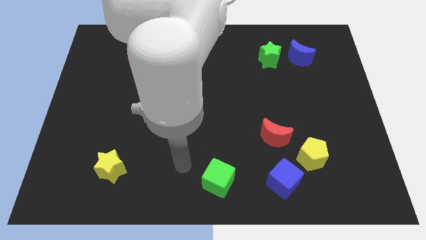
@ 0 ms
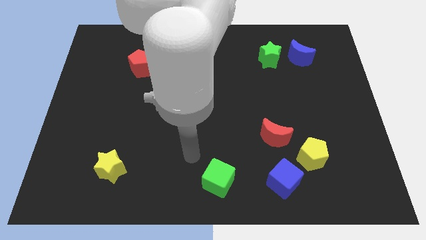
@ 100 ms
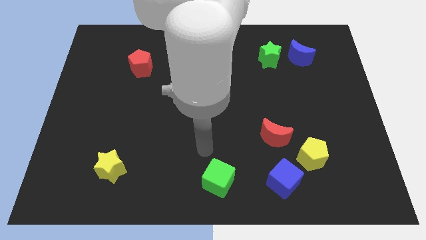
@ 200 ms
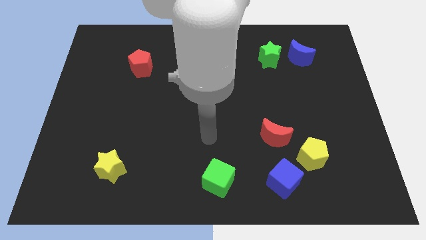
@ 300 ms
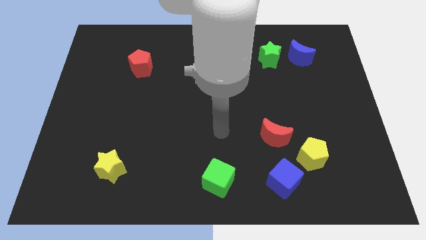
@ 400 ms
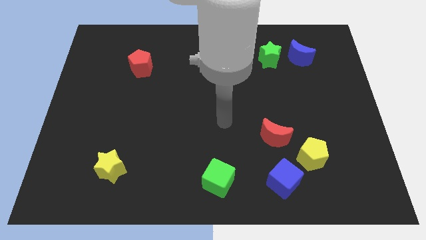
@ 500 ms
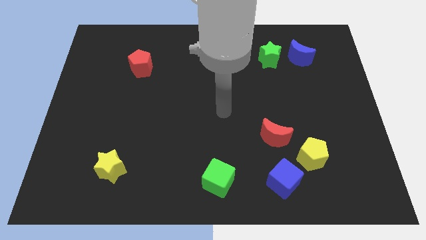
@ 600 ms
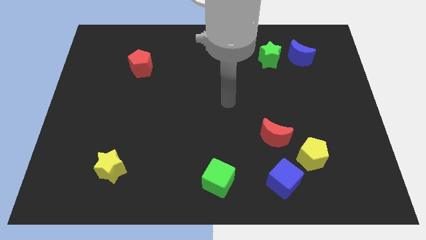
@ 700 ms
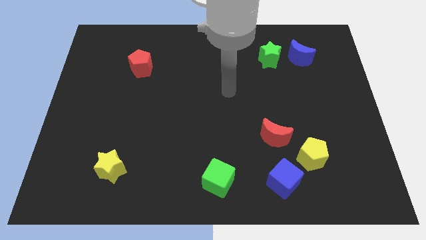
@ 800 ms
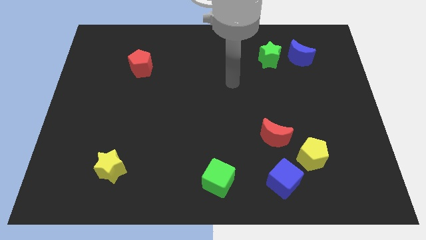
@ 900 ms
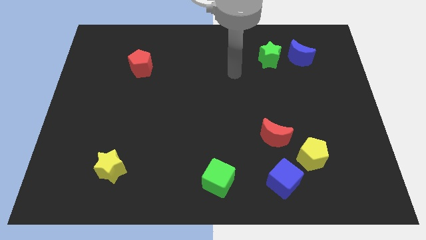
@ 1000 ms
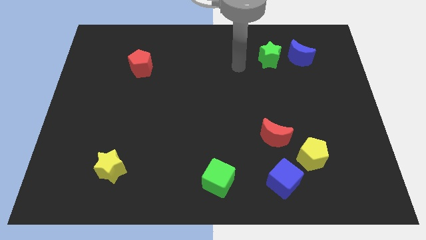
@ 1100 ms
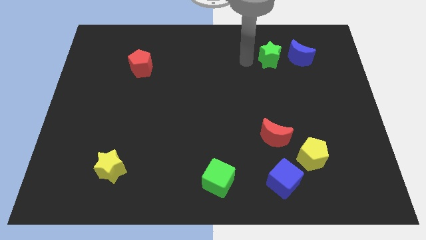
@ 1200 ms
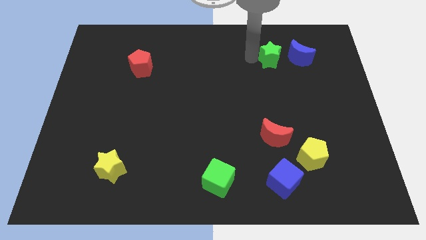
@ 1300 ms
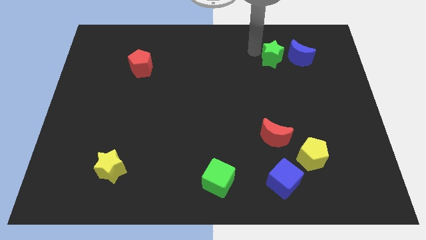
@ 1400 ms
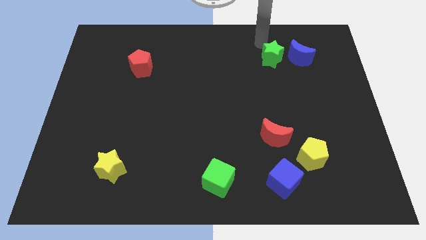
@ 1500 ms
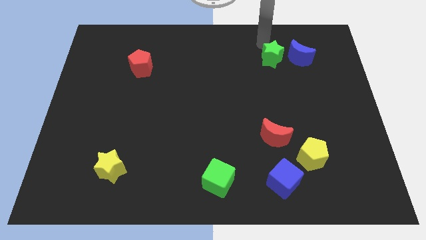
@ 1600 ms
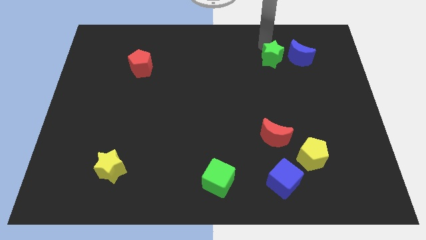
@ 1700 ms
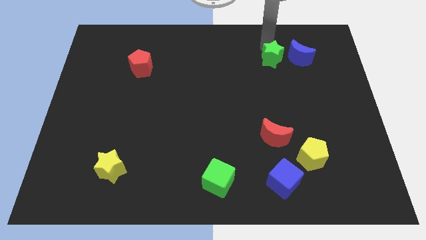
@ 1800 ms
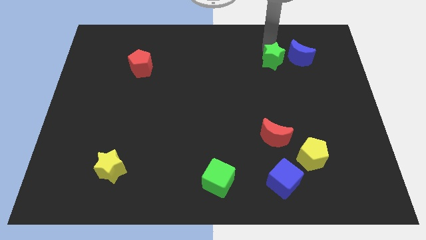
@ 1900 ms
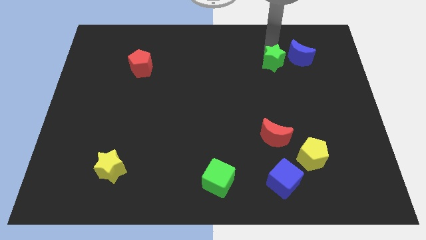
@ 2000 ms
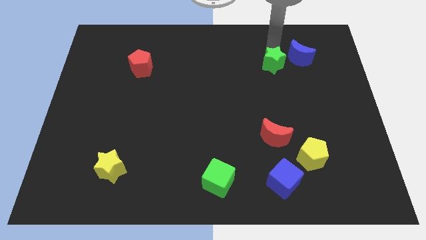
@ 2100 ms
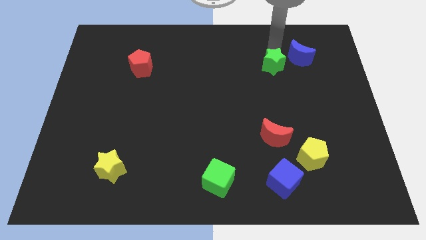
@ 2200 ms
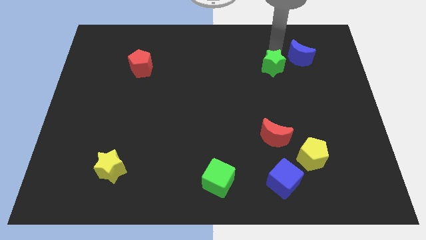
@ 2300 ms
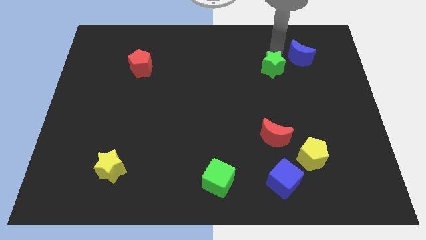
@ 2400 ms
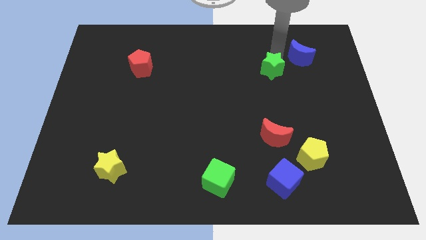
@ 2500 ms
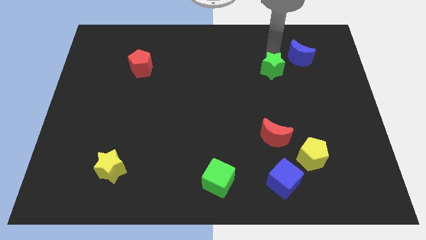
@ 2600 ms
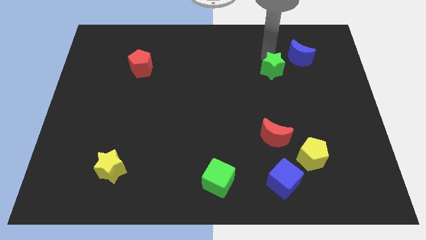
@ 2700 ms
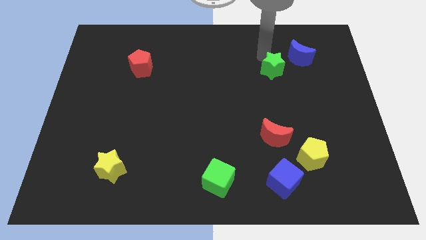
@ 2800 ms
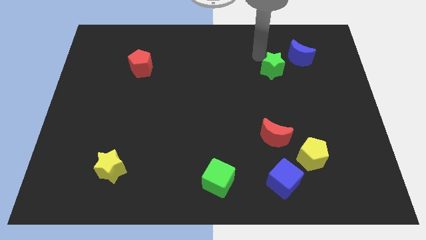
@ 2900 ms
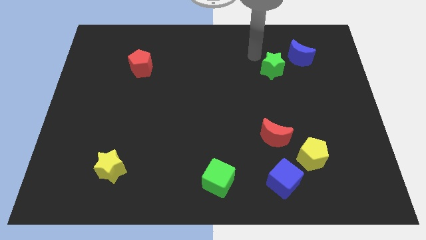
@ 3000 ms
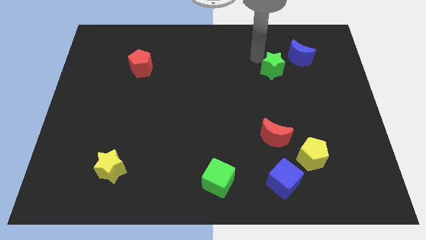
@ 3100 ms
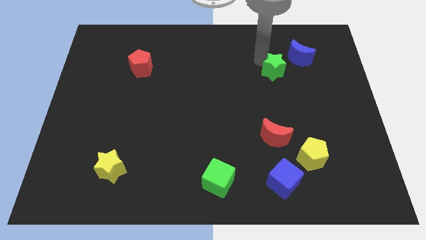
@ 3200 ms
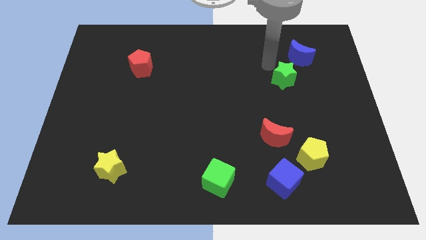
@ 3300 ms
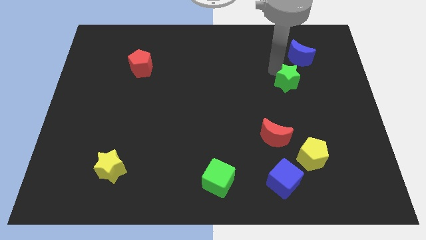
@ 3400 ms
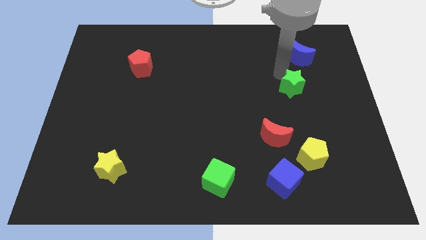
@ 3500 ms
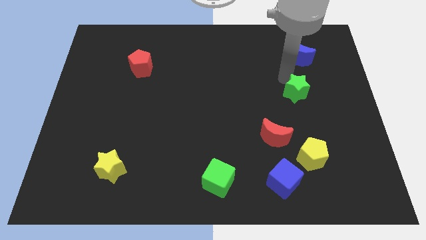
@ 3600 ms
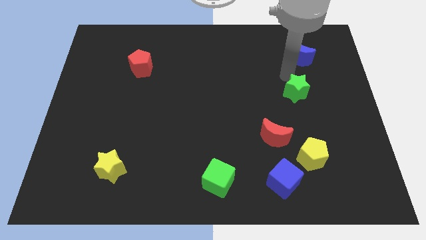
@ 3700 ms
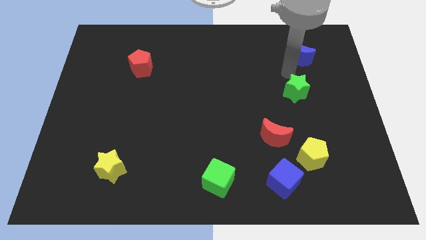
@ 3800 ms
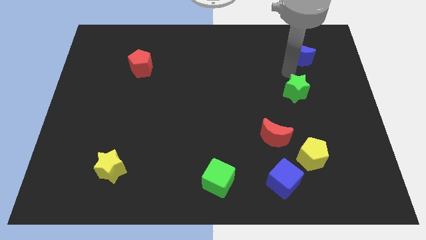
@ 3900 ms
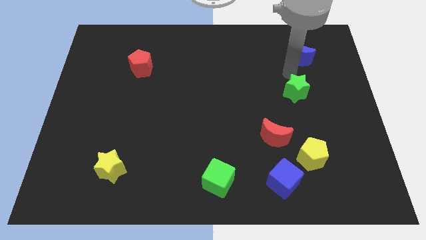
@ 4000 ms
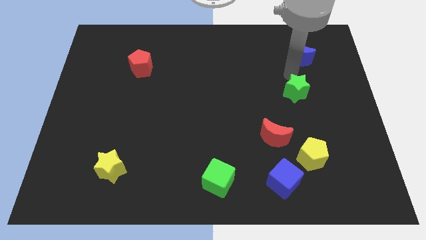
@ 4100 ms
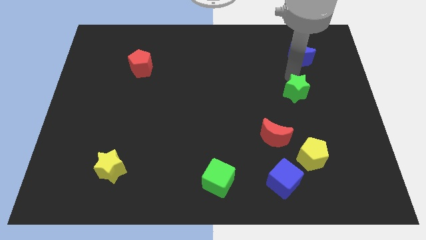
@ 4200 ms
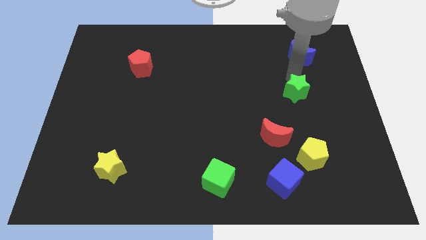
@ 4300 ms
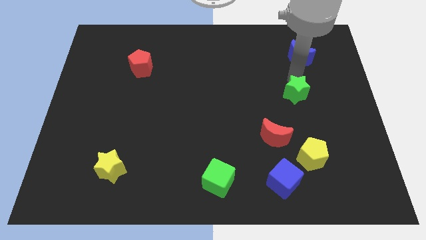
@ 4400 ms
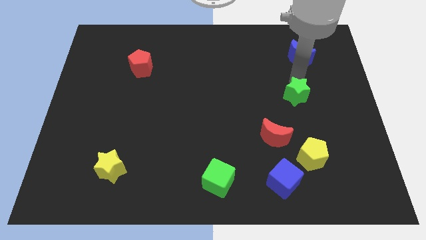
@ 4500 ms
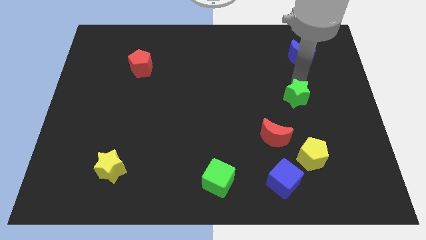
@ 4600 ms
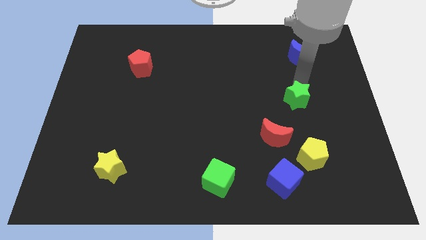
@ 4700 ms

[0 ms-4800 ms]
move the green star to the top side of the yellow pentagon

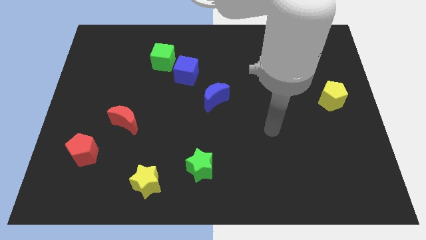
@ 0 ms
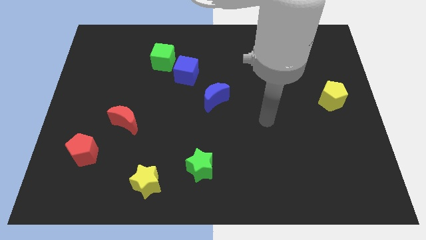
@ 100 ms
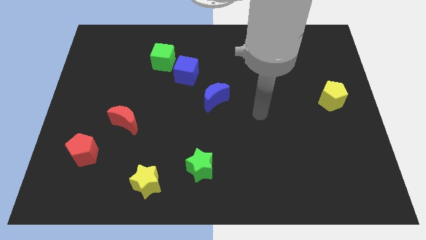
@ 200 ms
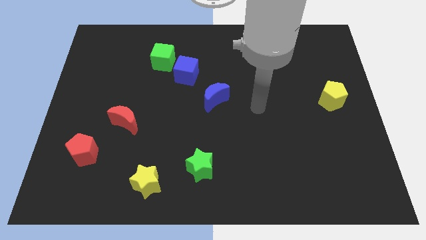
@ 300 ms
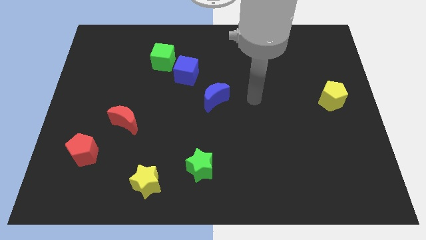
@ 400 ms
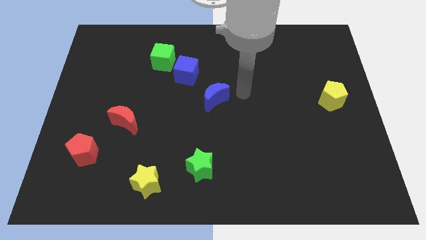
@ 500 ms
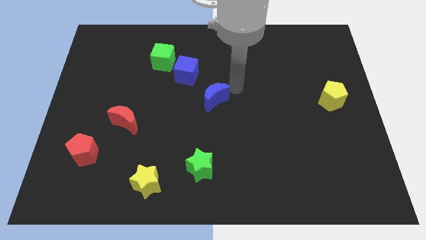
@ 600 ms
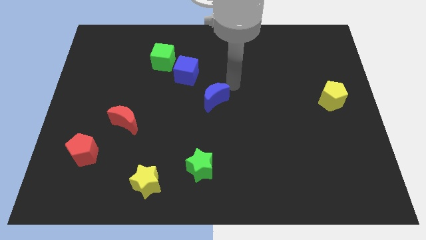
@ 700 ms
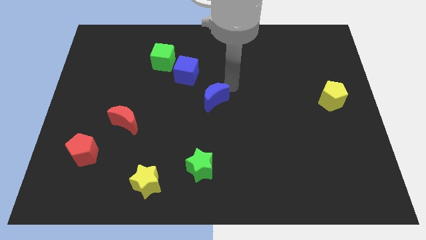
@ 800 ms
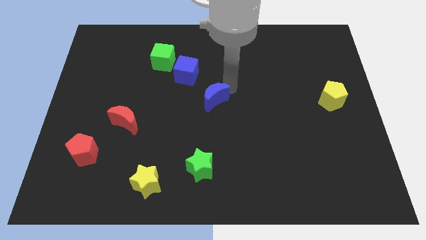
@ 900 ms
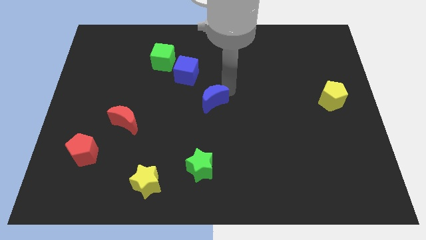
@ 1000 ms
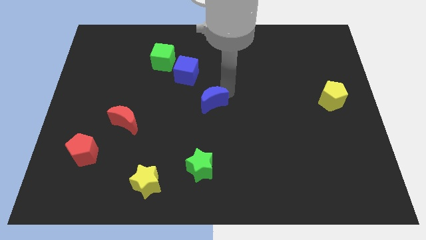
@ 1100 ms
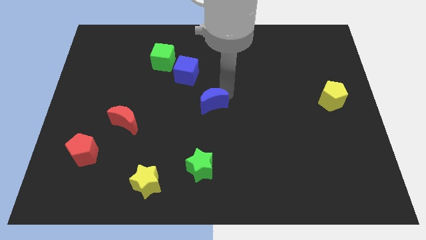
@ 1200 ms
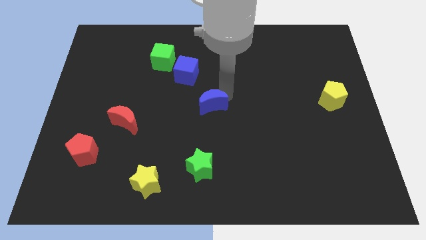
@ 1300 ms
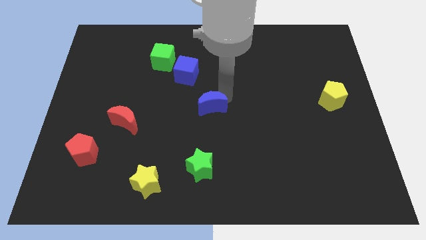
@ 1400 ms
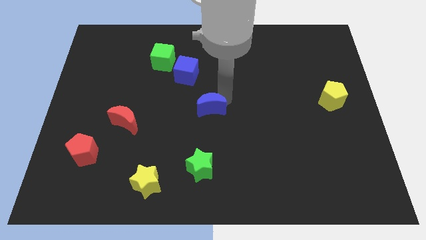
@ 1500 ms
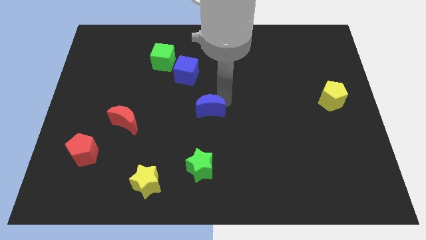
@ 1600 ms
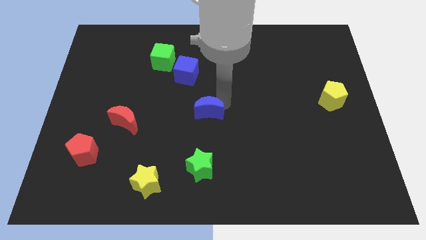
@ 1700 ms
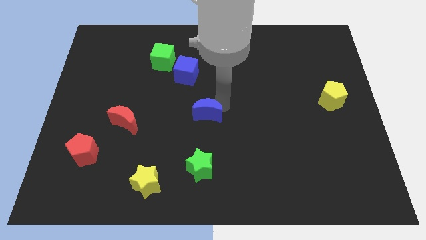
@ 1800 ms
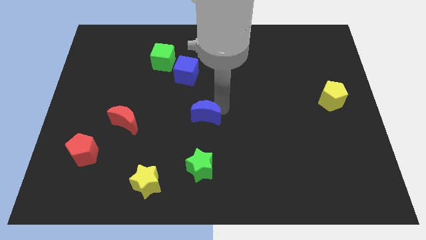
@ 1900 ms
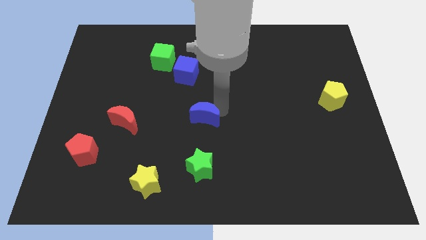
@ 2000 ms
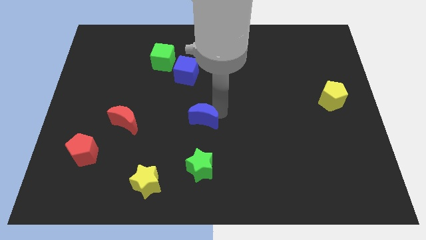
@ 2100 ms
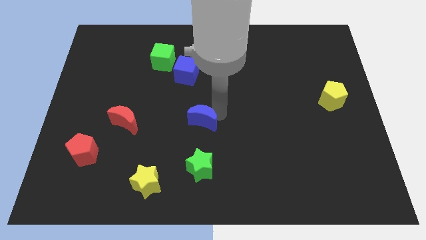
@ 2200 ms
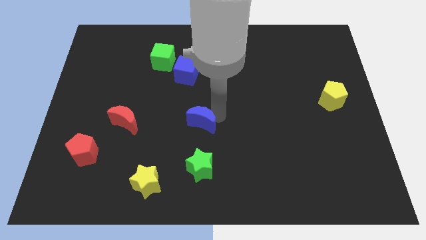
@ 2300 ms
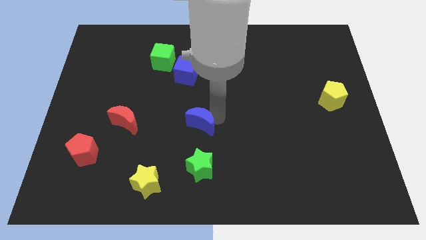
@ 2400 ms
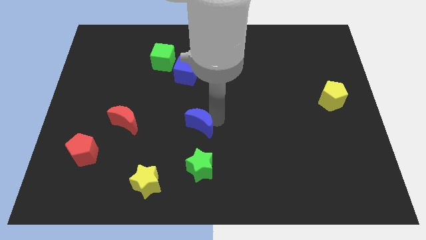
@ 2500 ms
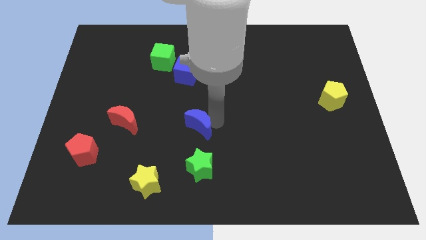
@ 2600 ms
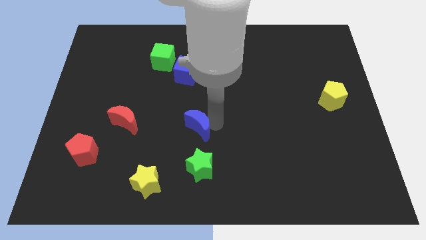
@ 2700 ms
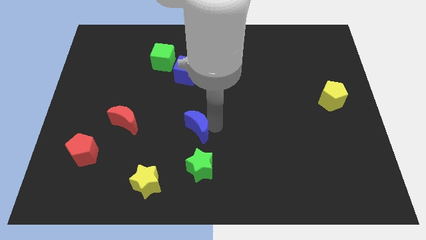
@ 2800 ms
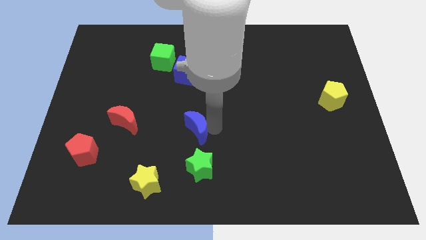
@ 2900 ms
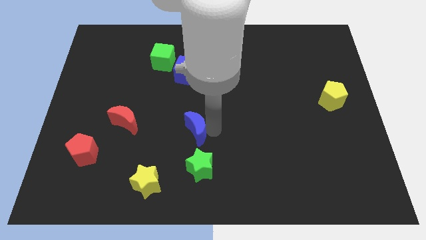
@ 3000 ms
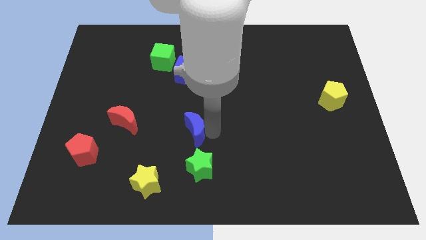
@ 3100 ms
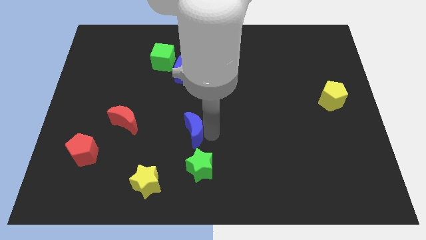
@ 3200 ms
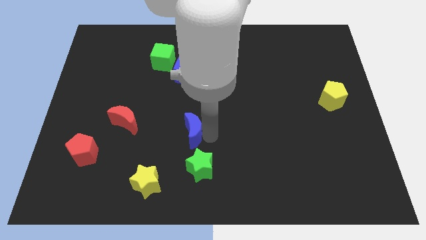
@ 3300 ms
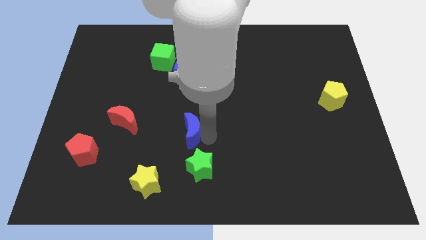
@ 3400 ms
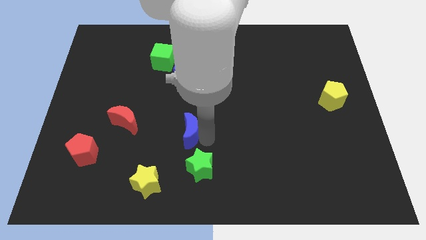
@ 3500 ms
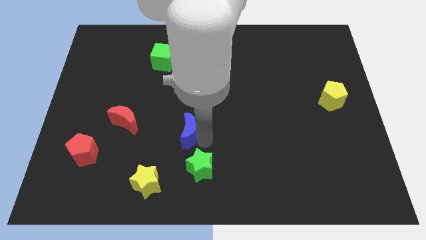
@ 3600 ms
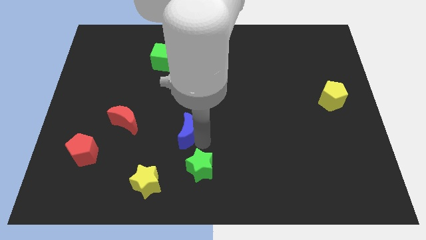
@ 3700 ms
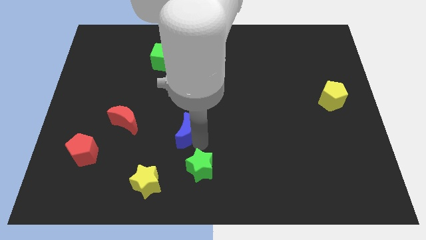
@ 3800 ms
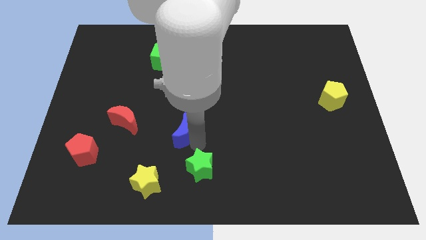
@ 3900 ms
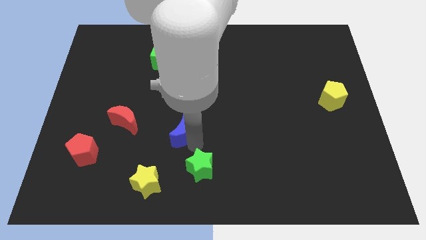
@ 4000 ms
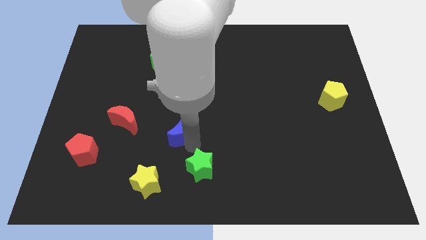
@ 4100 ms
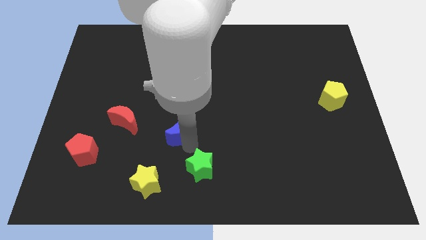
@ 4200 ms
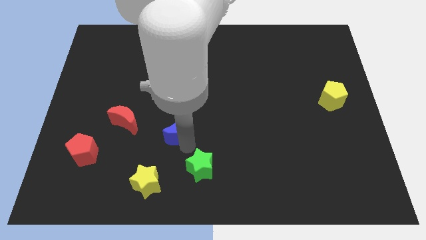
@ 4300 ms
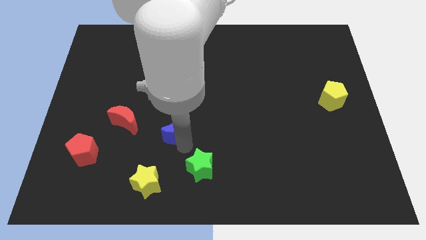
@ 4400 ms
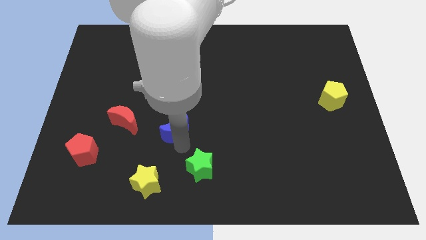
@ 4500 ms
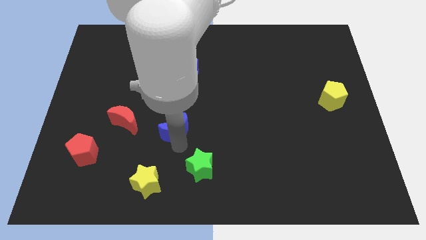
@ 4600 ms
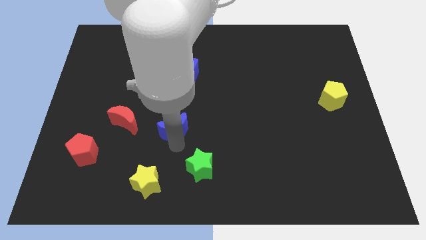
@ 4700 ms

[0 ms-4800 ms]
push the blue moon to the top side of the yellow star
